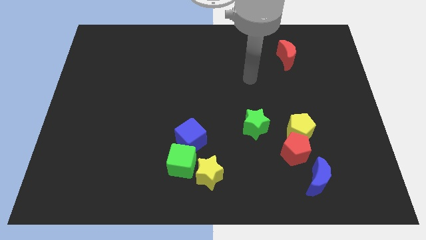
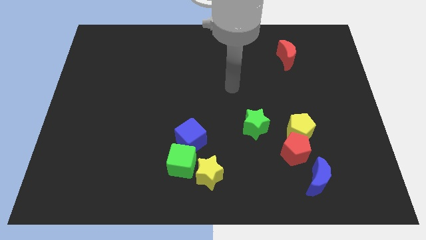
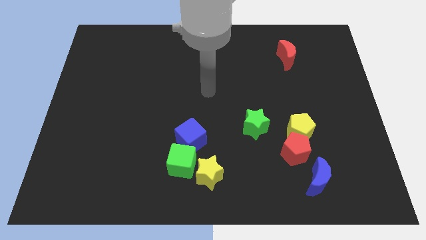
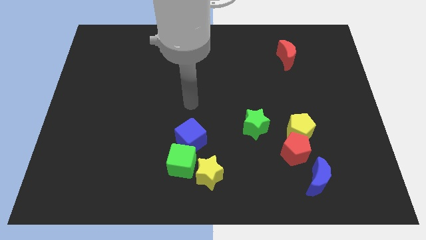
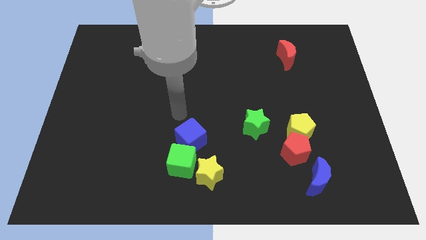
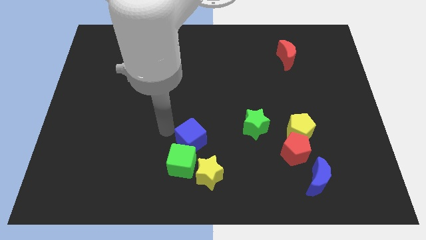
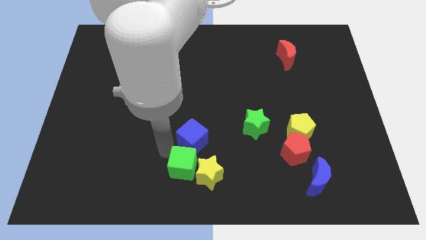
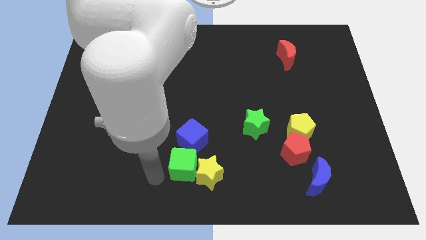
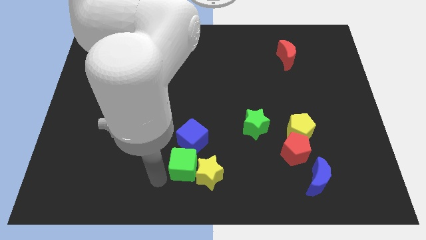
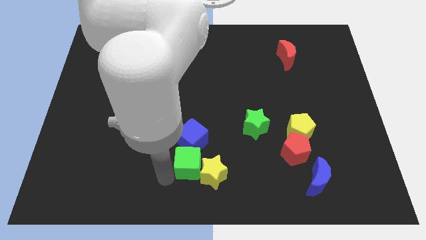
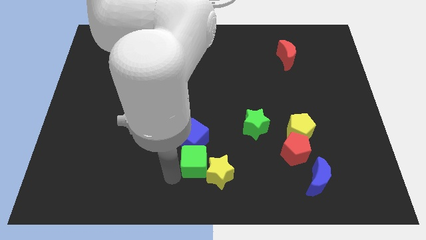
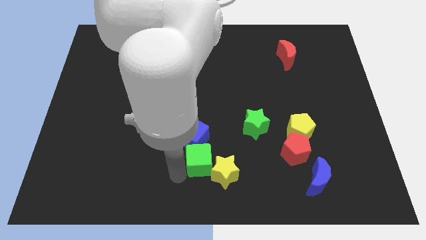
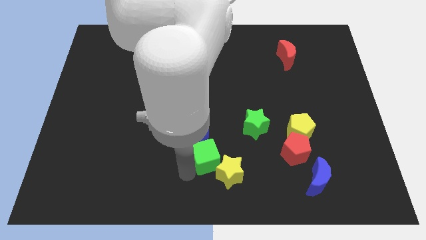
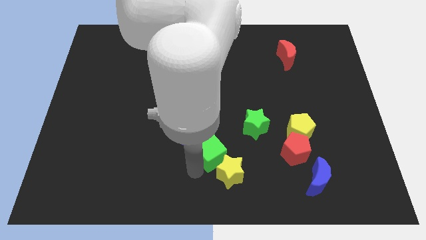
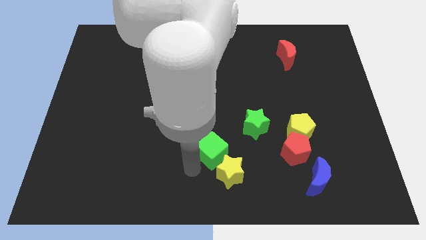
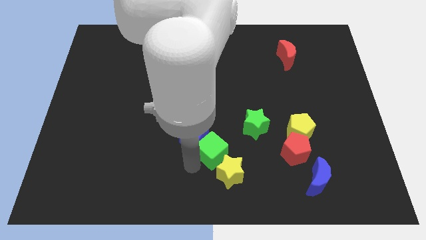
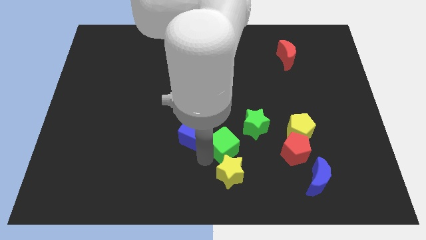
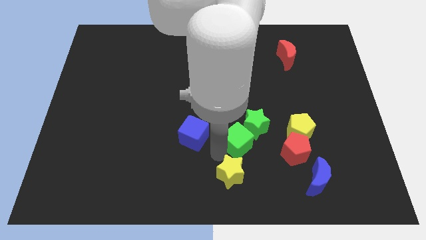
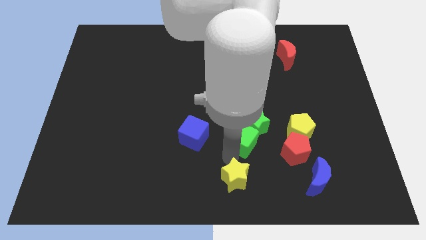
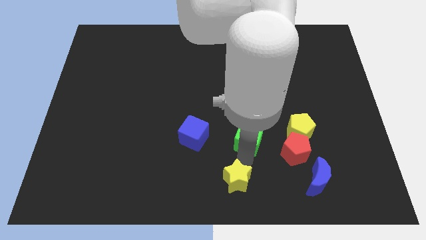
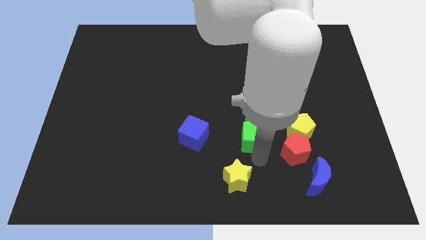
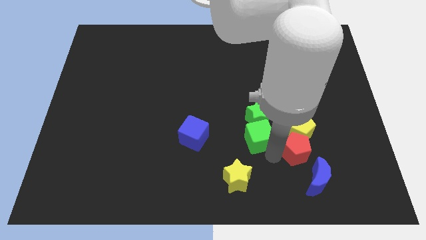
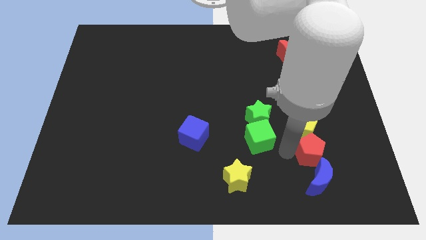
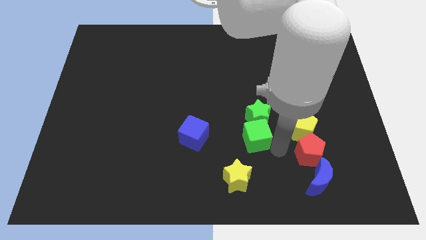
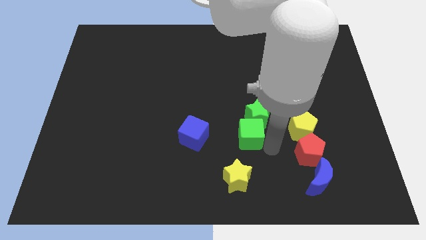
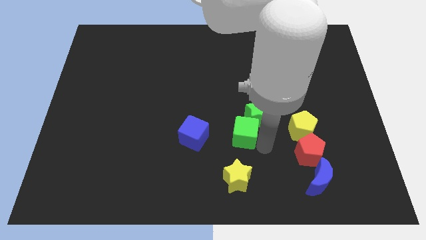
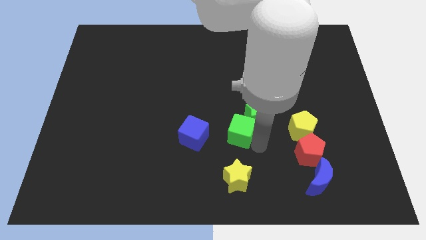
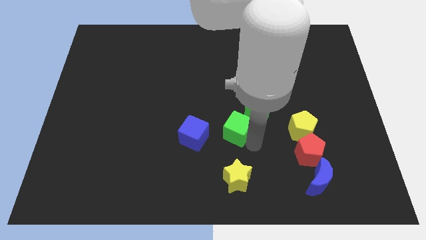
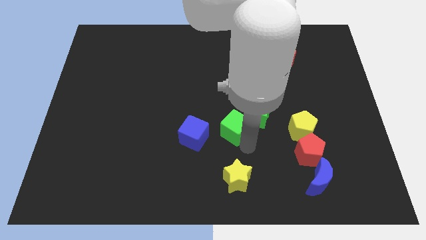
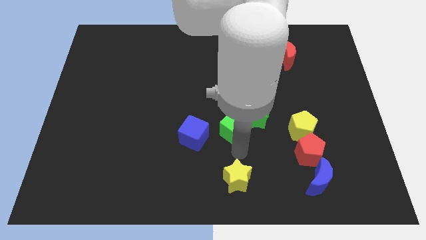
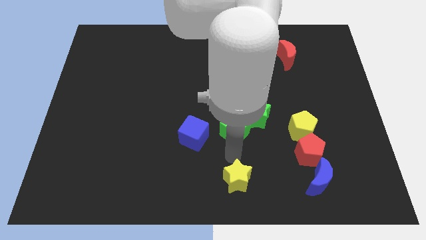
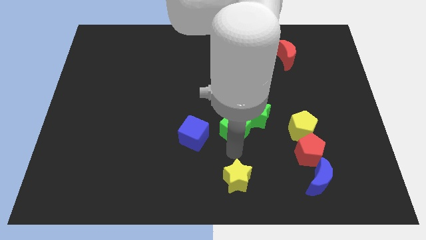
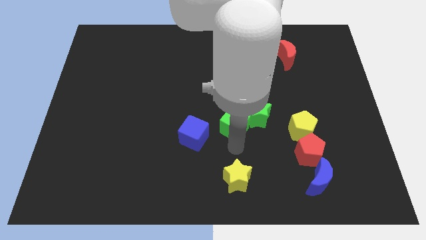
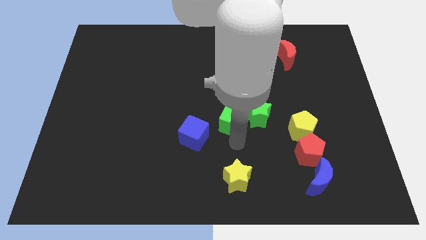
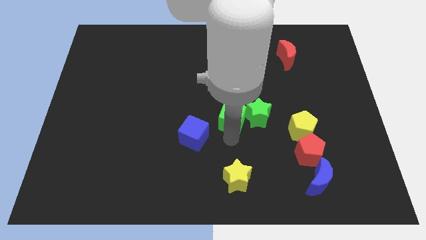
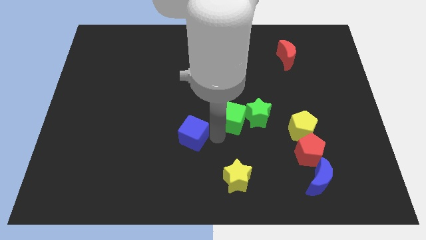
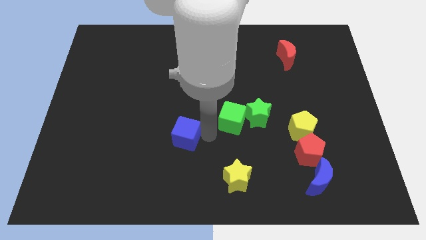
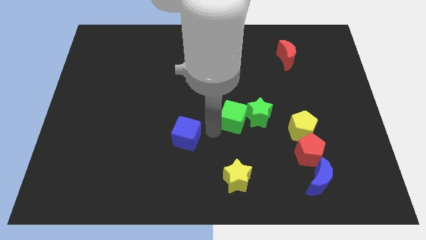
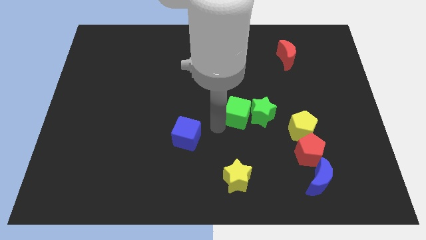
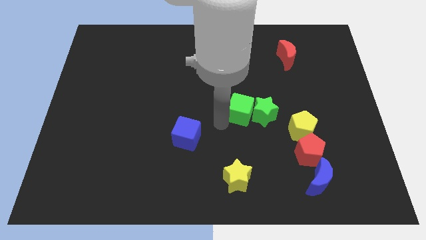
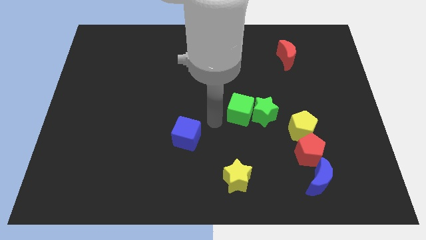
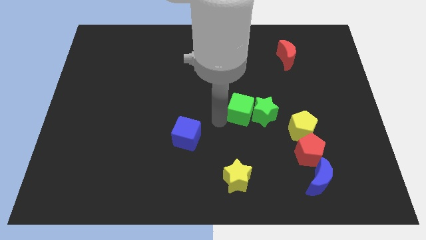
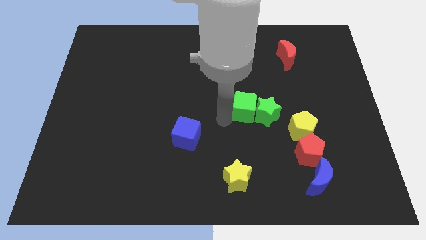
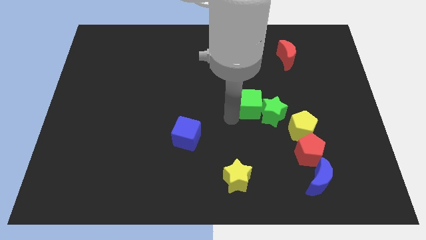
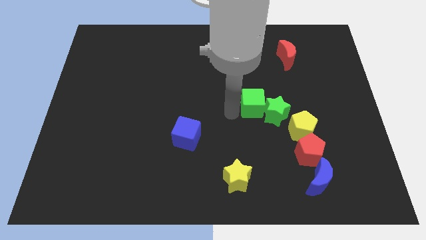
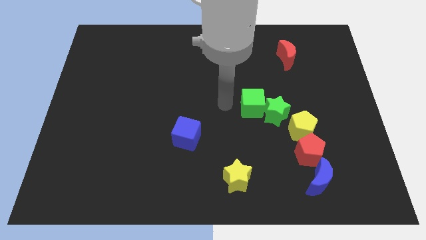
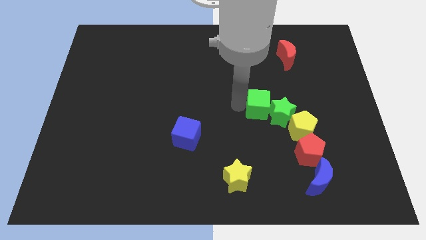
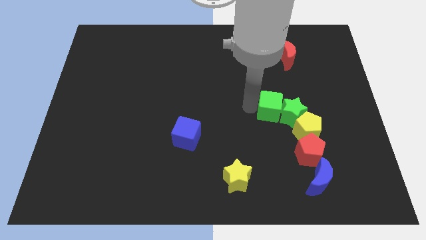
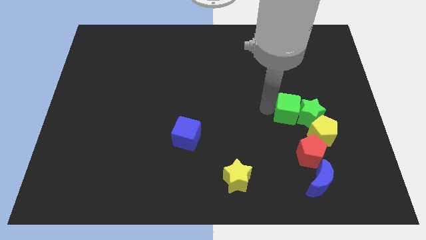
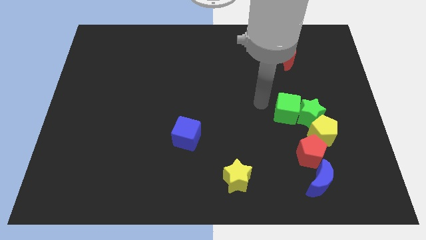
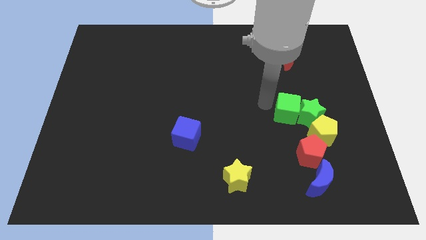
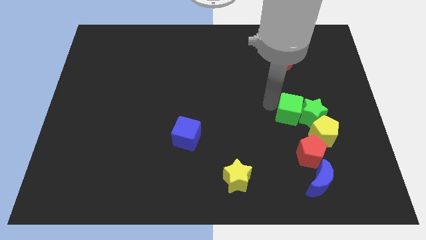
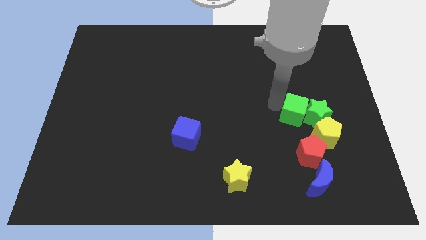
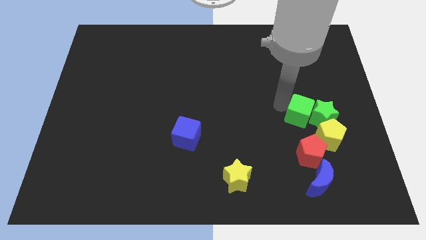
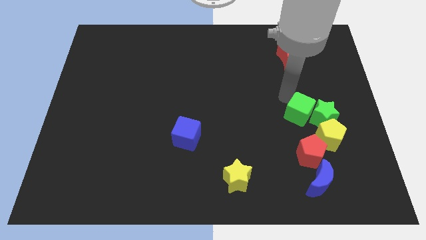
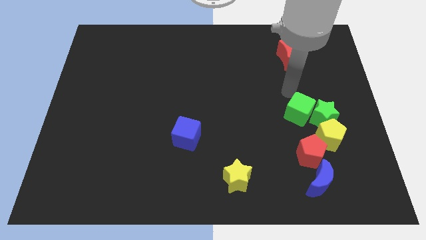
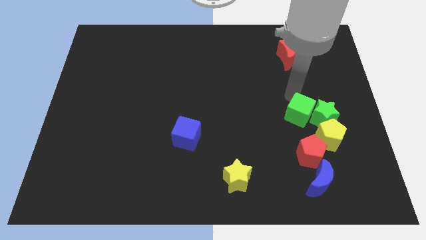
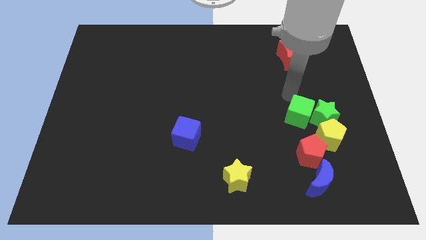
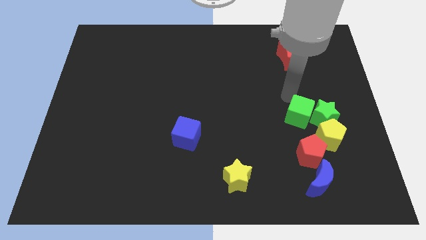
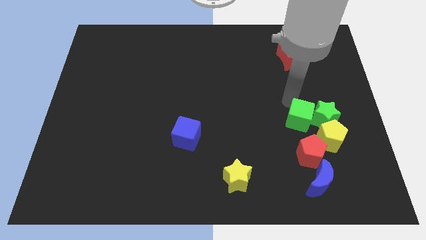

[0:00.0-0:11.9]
push the green cube to the top side of the blue moon

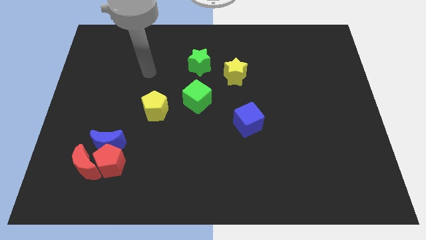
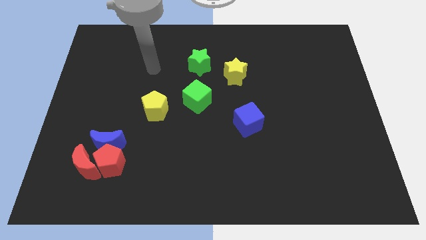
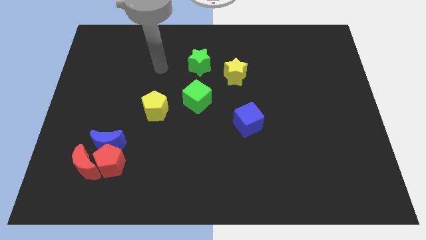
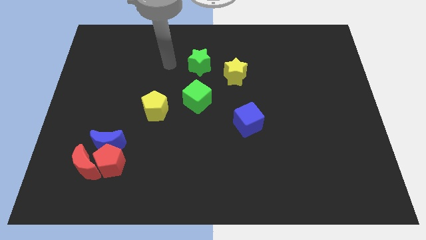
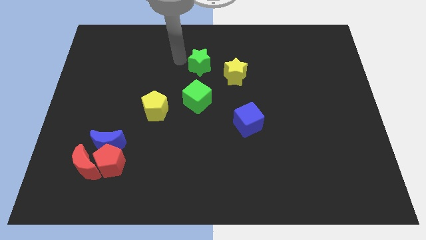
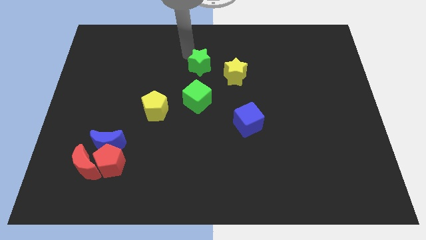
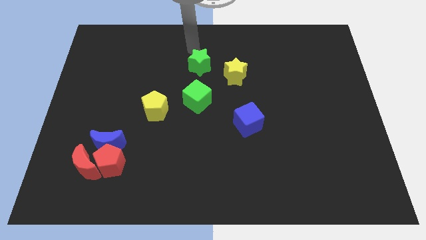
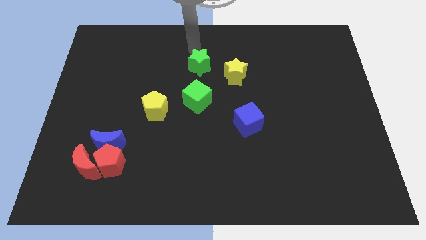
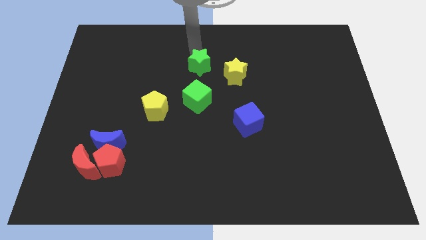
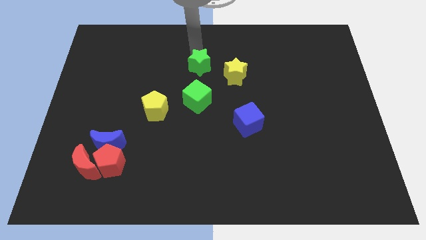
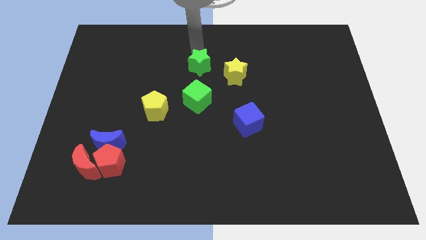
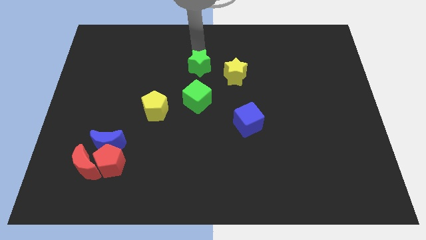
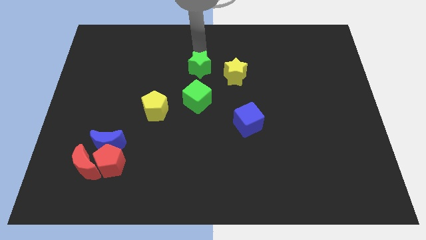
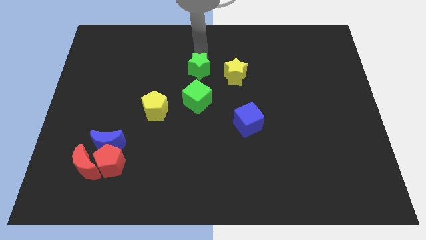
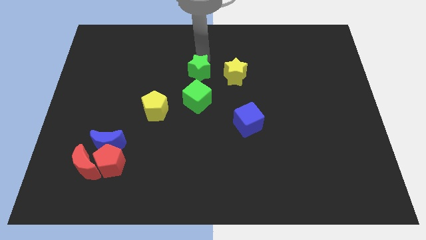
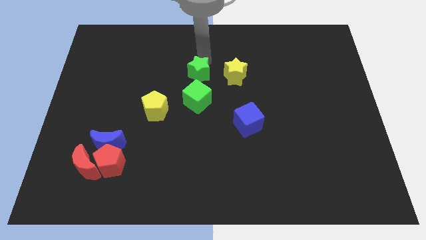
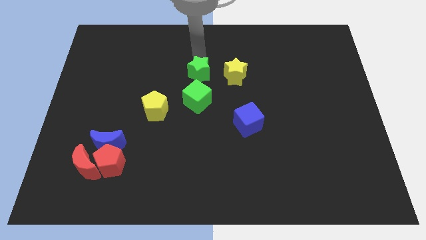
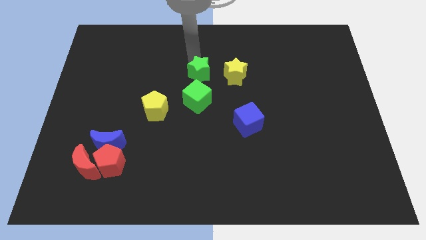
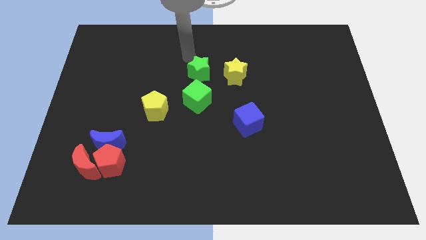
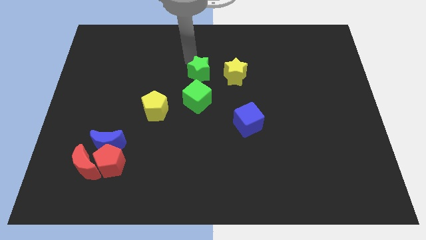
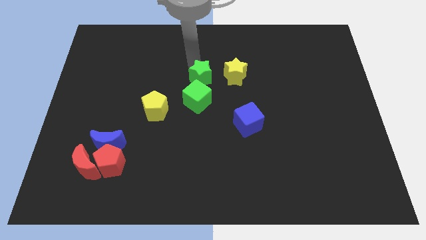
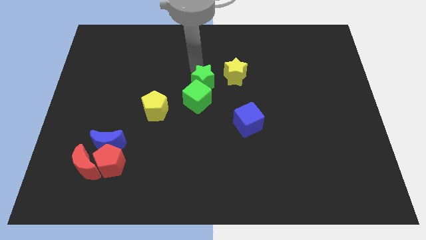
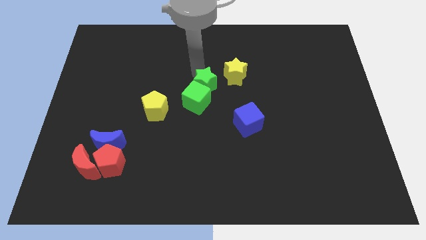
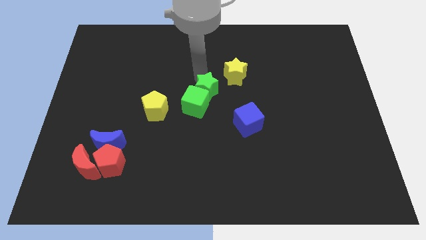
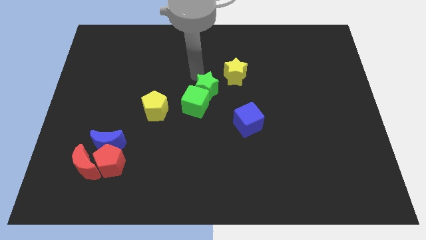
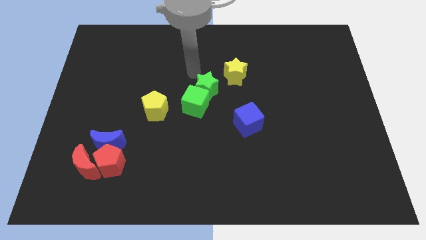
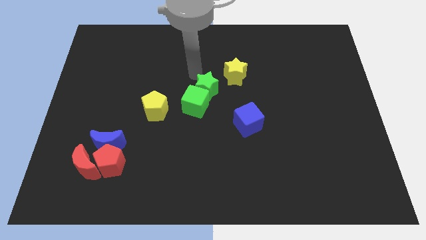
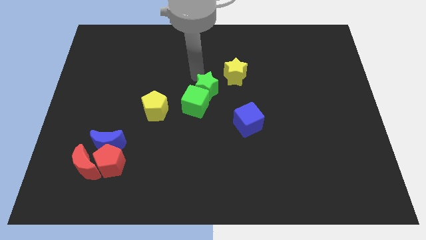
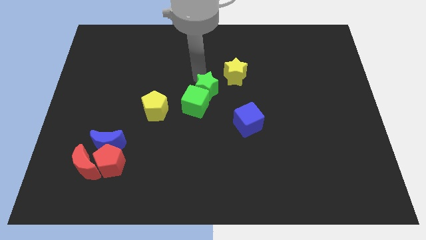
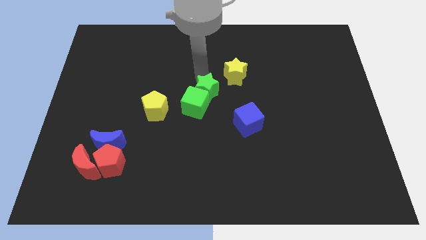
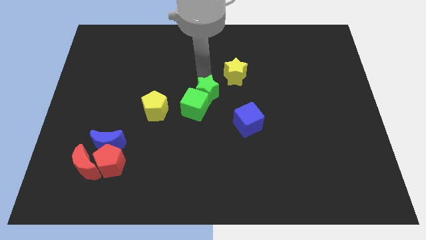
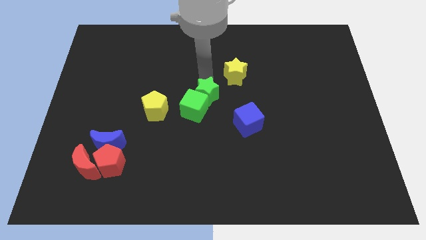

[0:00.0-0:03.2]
put the green star to the right of the yellow pentagon
